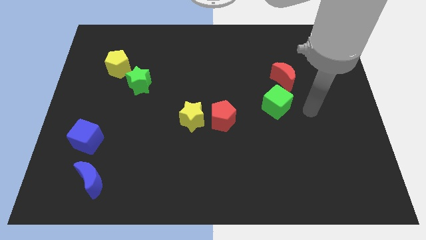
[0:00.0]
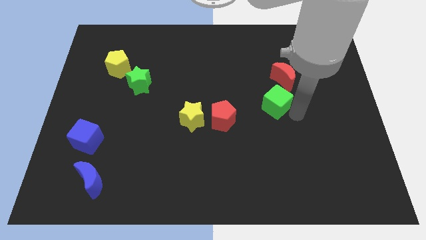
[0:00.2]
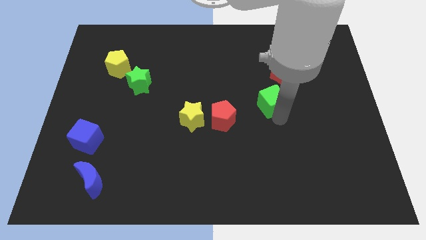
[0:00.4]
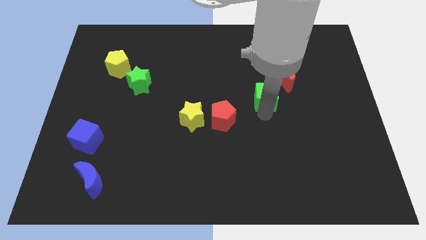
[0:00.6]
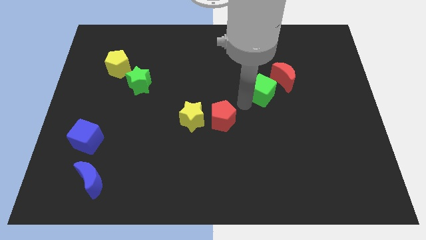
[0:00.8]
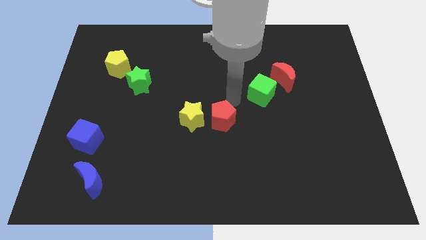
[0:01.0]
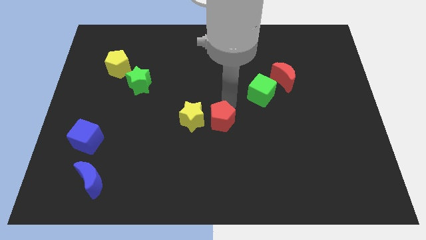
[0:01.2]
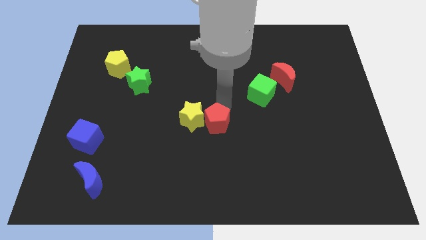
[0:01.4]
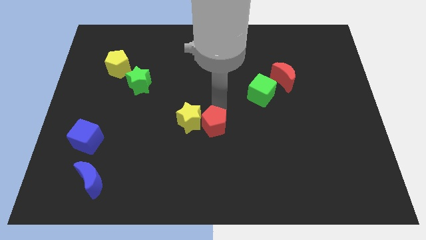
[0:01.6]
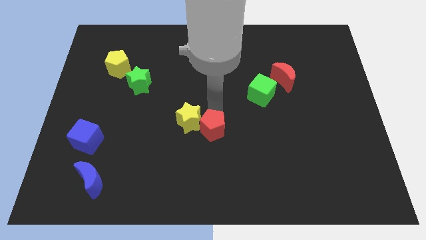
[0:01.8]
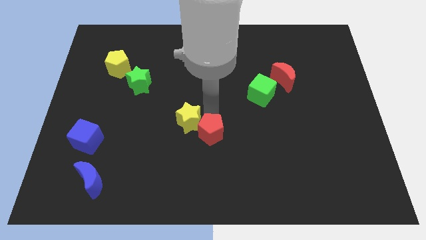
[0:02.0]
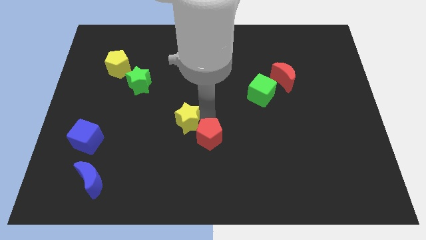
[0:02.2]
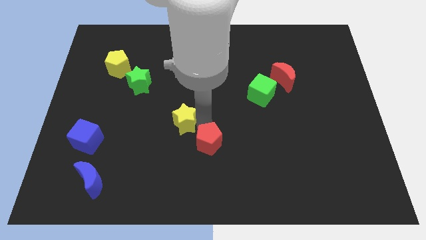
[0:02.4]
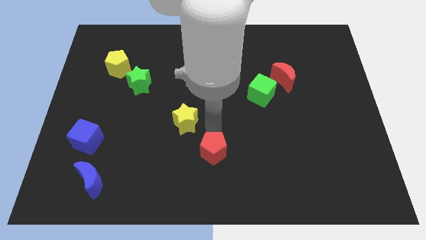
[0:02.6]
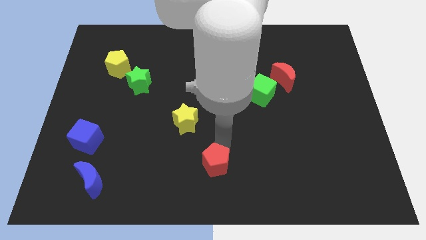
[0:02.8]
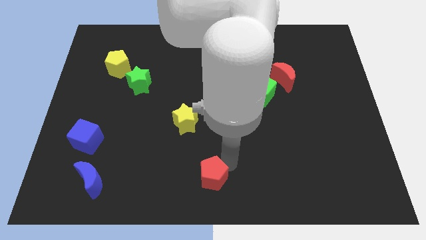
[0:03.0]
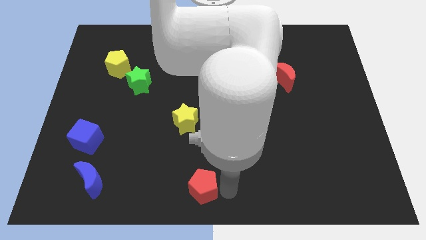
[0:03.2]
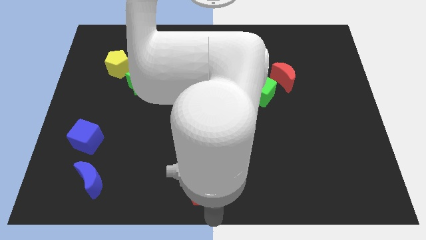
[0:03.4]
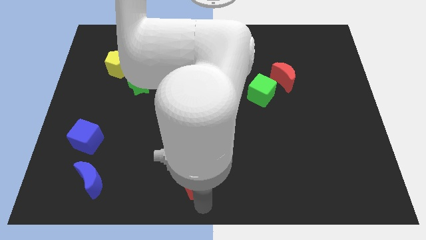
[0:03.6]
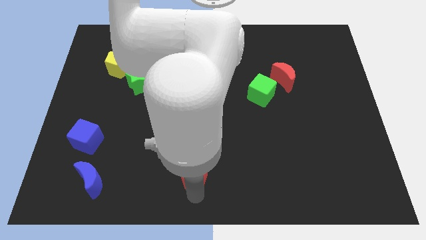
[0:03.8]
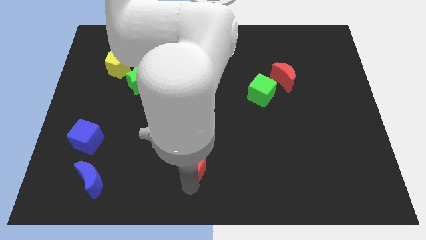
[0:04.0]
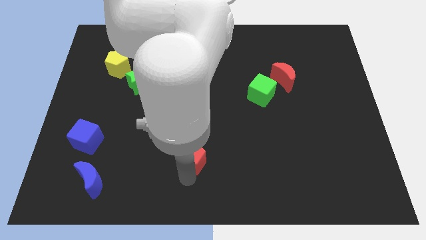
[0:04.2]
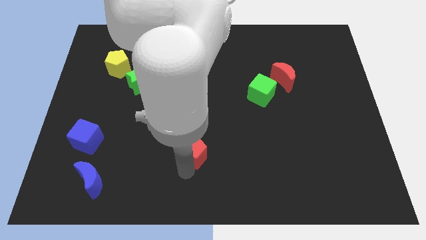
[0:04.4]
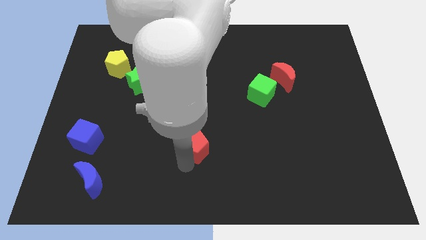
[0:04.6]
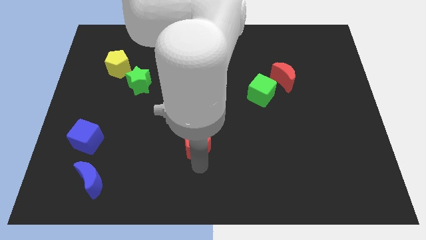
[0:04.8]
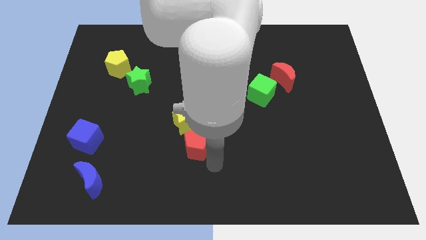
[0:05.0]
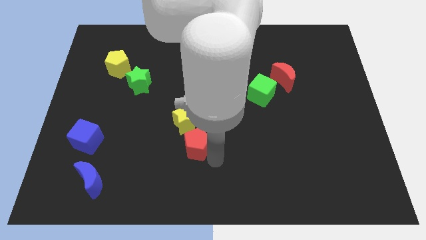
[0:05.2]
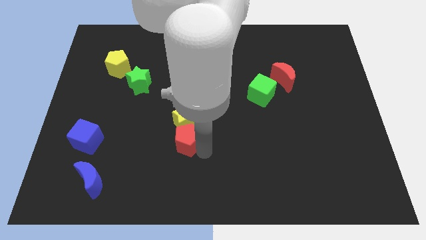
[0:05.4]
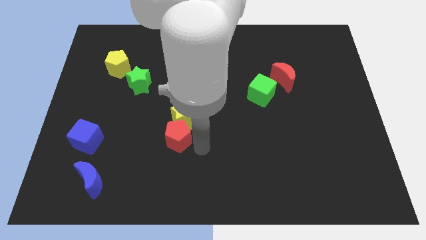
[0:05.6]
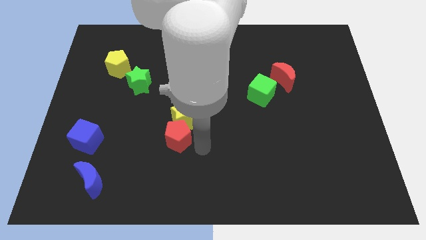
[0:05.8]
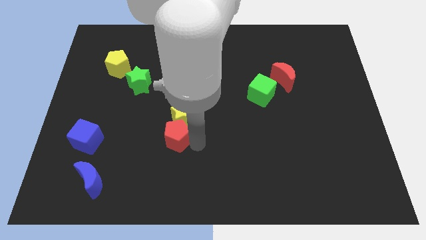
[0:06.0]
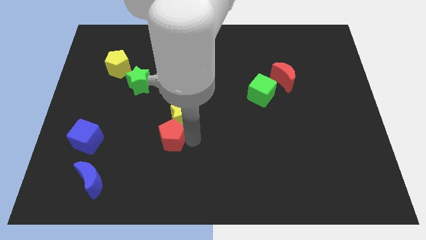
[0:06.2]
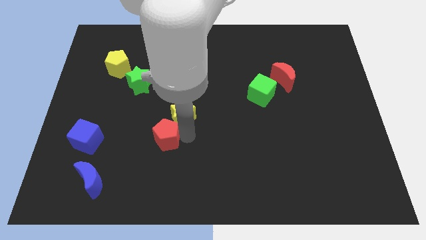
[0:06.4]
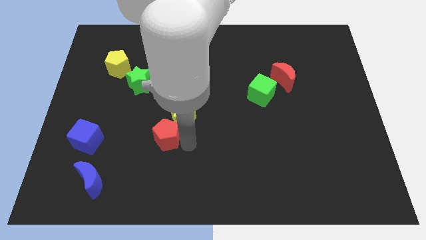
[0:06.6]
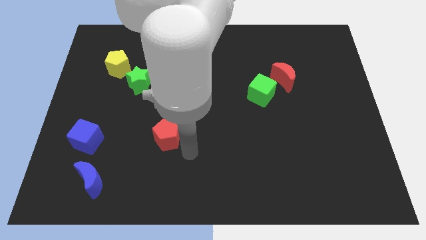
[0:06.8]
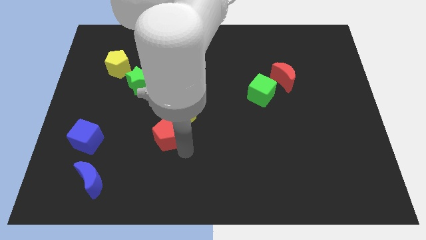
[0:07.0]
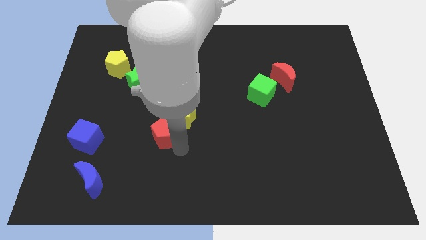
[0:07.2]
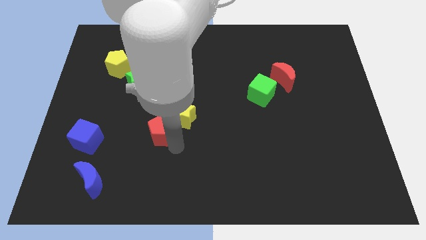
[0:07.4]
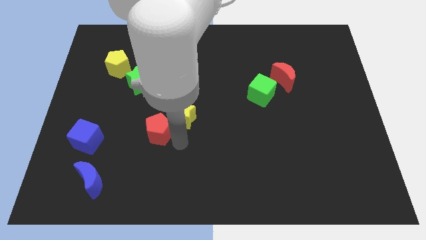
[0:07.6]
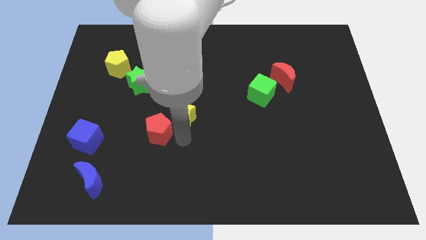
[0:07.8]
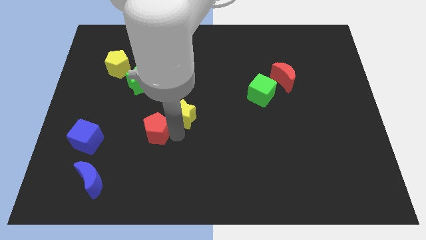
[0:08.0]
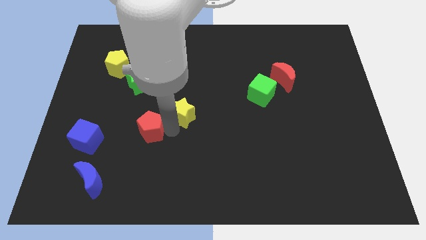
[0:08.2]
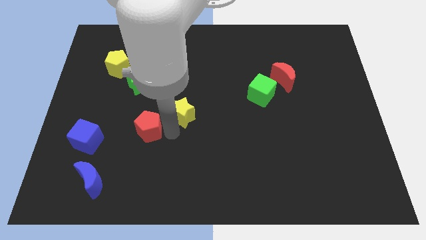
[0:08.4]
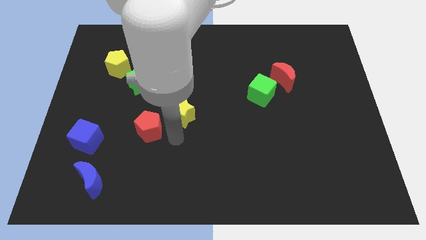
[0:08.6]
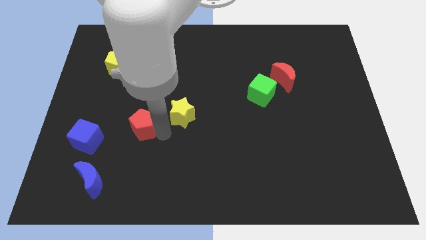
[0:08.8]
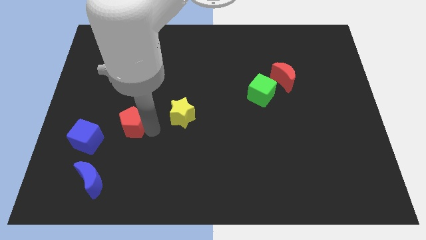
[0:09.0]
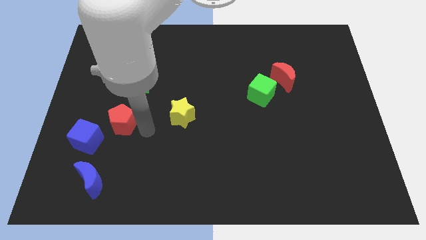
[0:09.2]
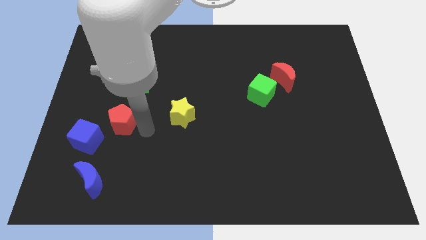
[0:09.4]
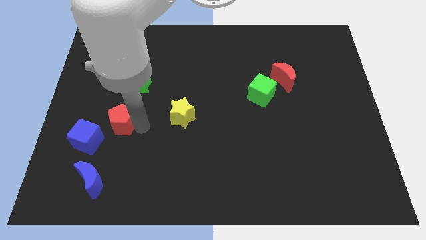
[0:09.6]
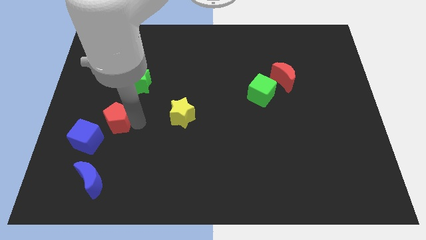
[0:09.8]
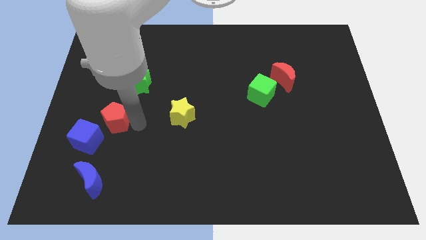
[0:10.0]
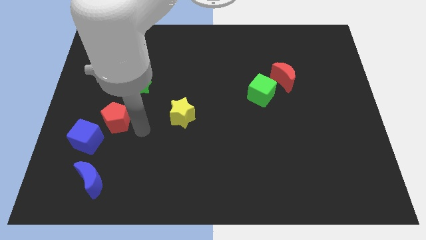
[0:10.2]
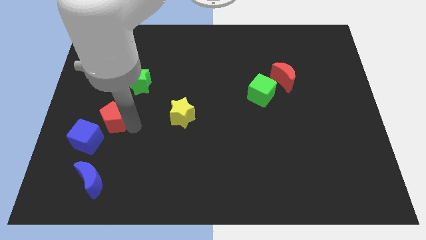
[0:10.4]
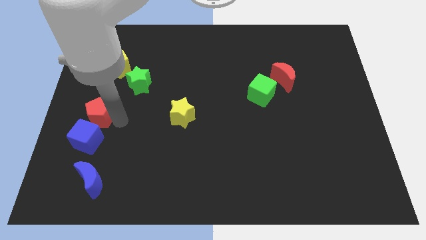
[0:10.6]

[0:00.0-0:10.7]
put the red pentagon to the left side of the board

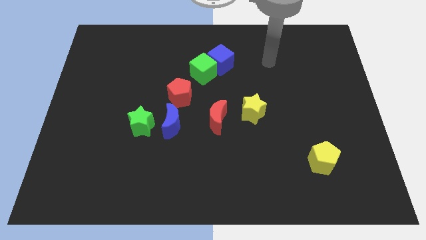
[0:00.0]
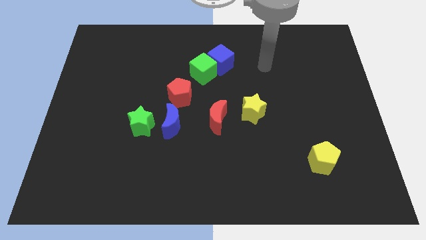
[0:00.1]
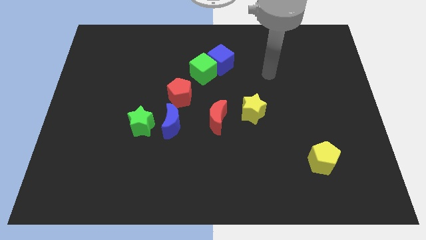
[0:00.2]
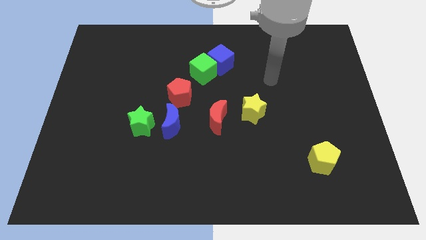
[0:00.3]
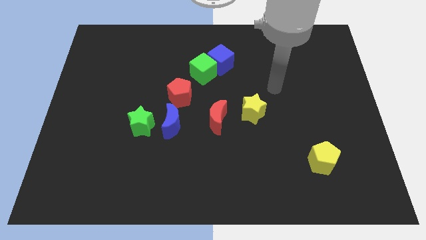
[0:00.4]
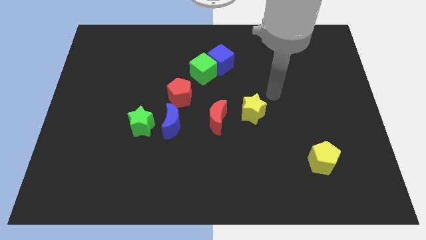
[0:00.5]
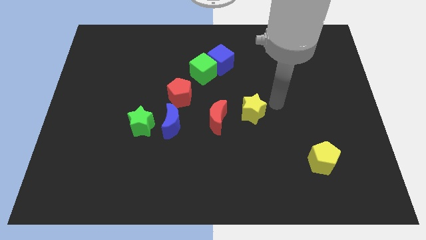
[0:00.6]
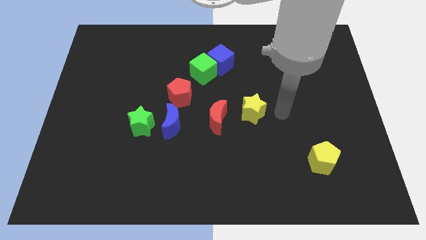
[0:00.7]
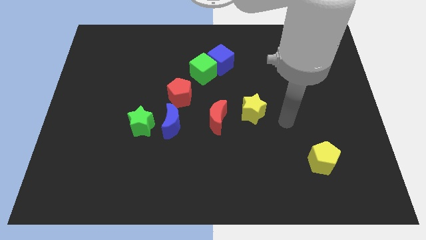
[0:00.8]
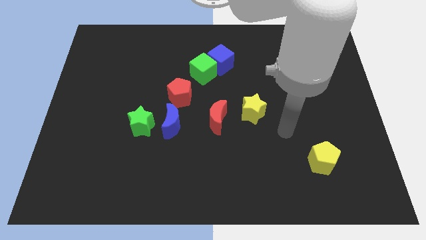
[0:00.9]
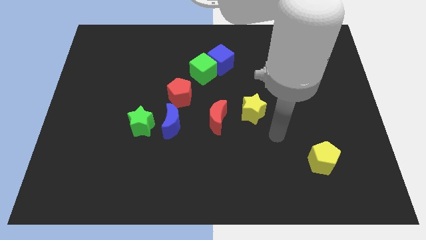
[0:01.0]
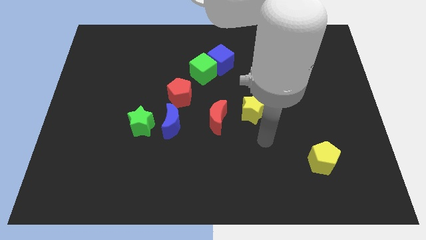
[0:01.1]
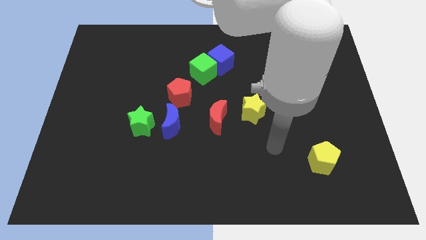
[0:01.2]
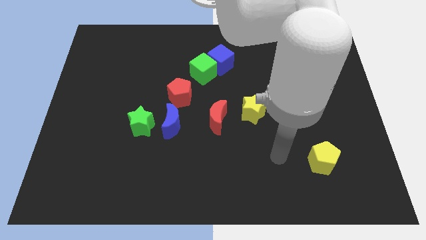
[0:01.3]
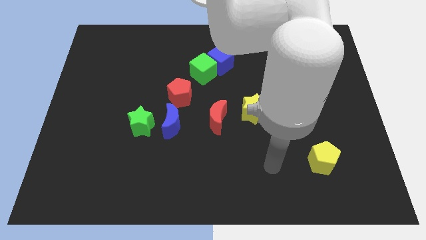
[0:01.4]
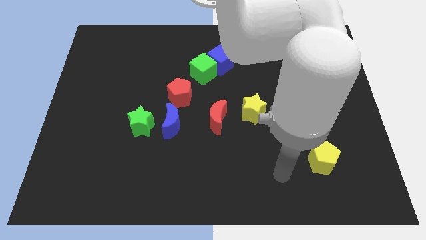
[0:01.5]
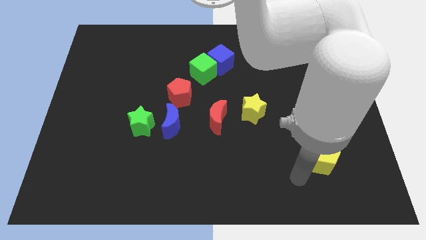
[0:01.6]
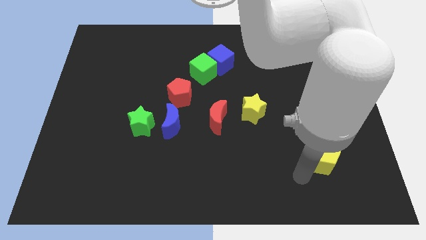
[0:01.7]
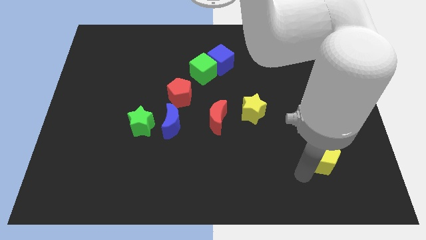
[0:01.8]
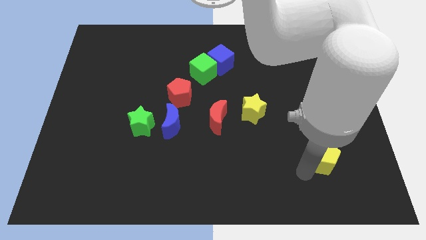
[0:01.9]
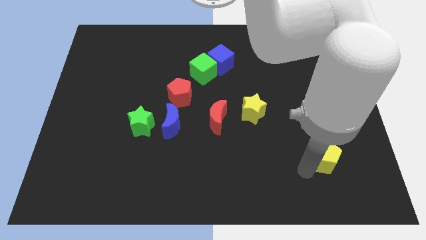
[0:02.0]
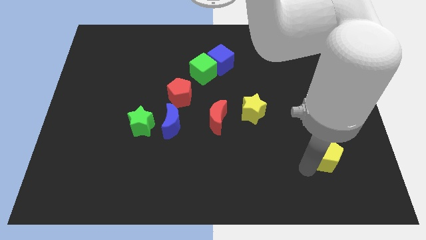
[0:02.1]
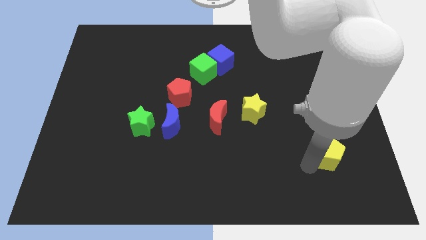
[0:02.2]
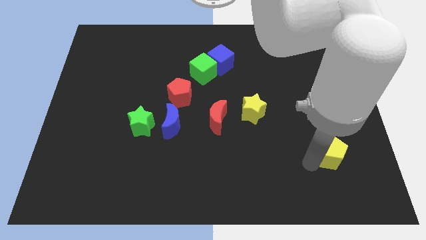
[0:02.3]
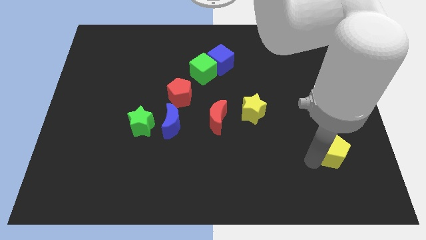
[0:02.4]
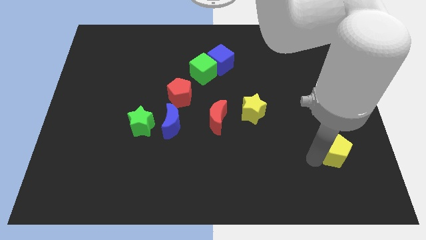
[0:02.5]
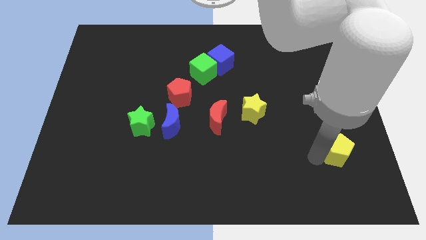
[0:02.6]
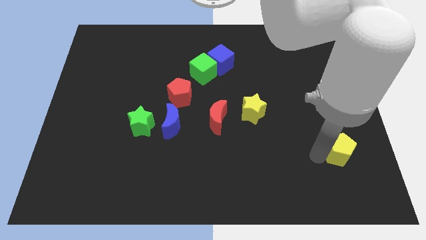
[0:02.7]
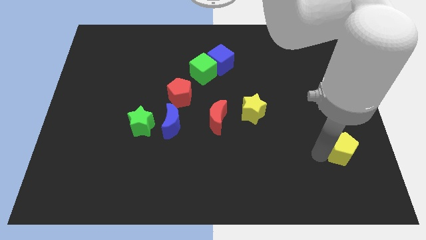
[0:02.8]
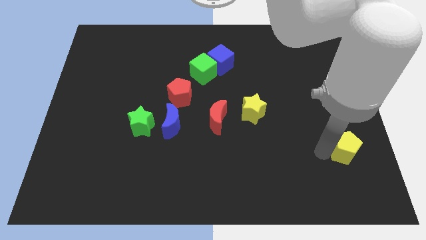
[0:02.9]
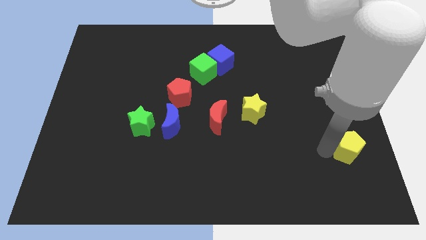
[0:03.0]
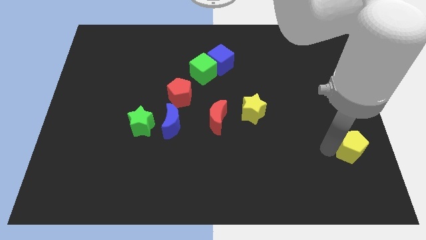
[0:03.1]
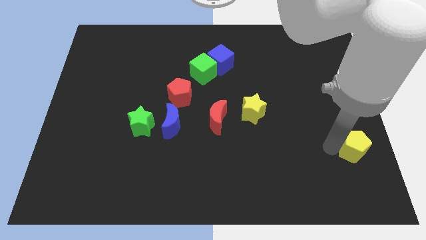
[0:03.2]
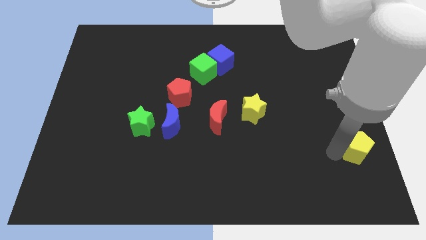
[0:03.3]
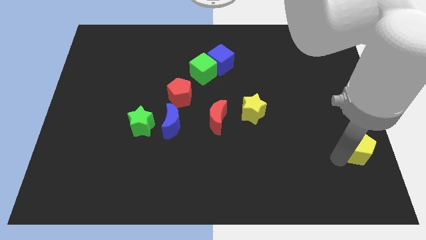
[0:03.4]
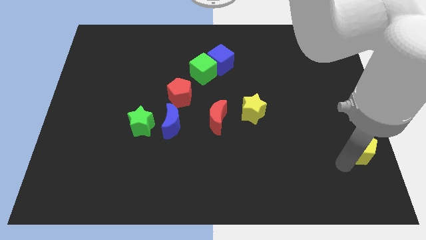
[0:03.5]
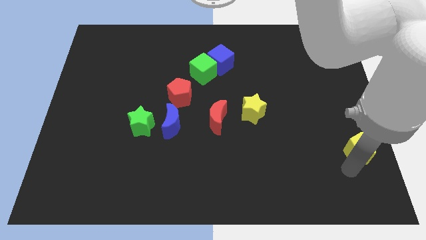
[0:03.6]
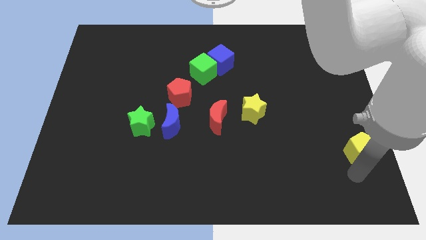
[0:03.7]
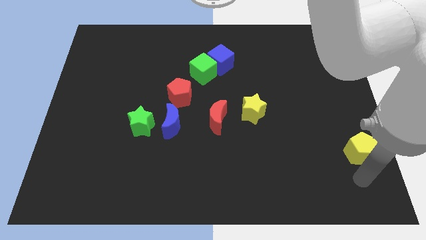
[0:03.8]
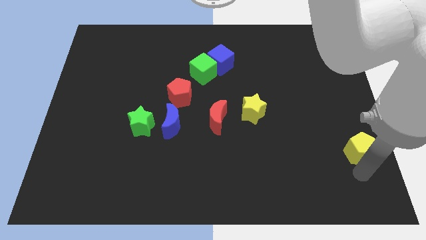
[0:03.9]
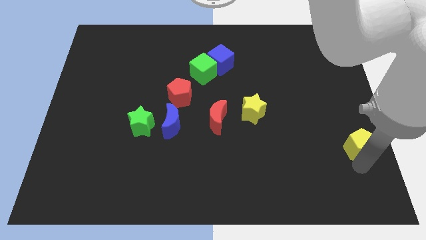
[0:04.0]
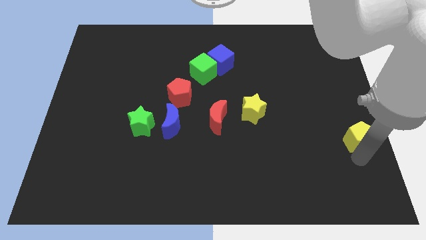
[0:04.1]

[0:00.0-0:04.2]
put the yellow pentagon to the right side of the board
